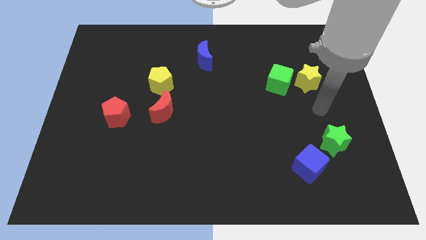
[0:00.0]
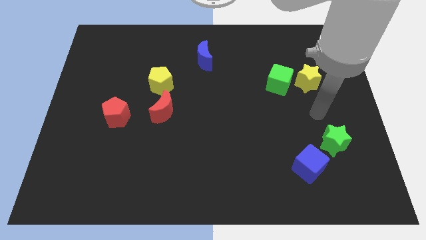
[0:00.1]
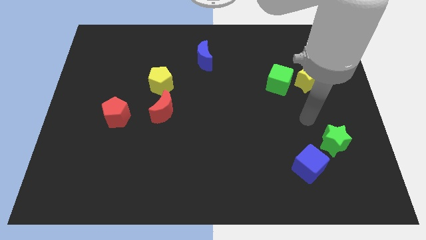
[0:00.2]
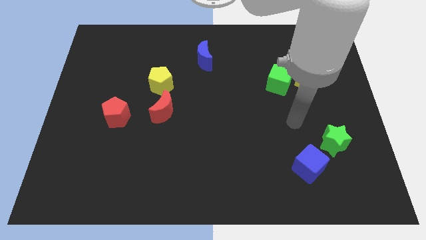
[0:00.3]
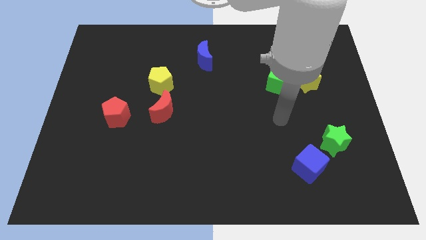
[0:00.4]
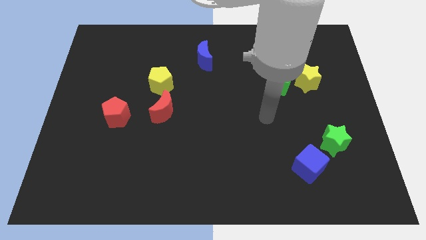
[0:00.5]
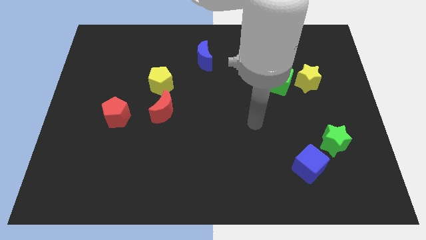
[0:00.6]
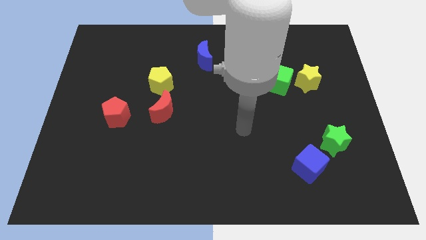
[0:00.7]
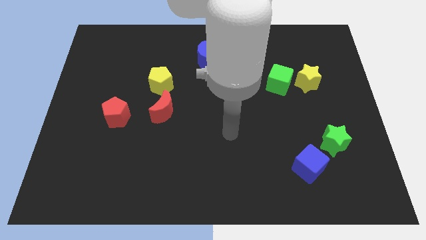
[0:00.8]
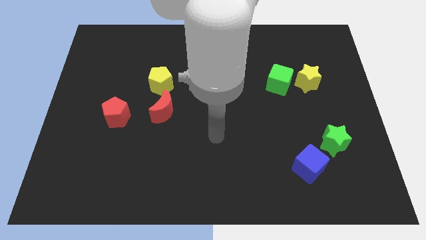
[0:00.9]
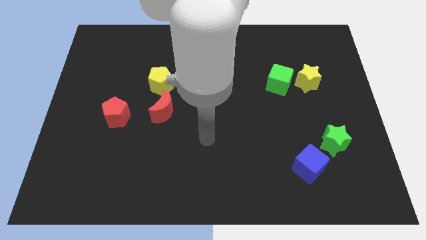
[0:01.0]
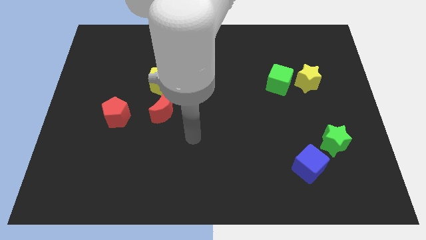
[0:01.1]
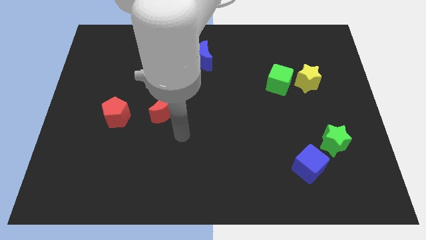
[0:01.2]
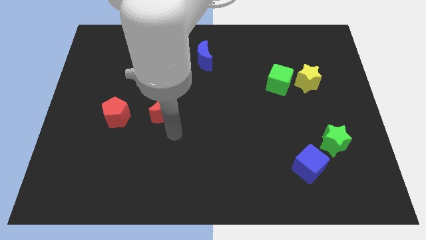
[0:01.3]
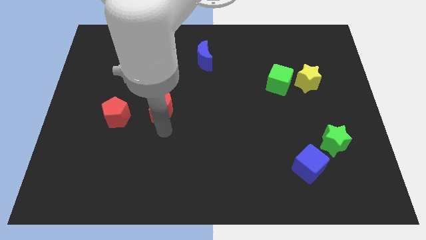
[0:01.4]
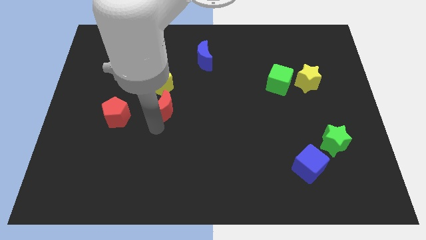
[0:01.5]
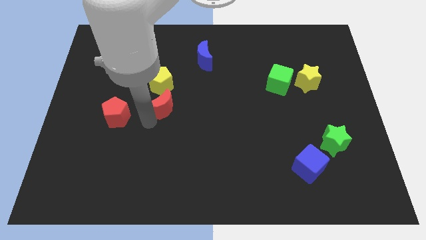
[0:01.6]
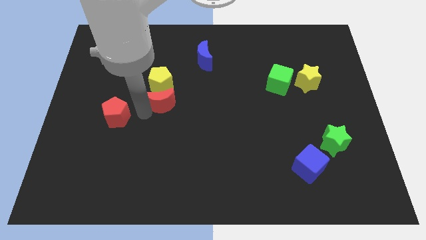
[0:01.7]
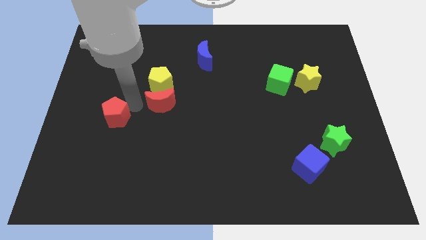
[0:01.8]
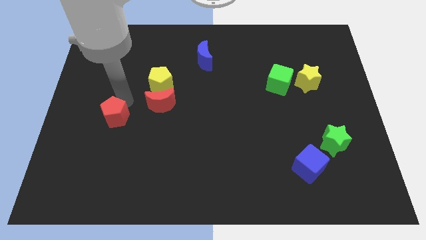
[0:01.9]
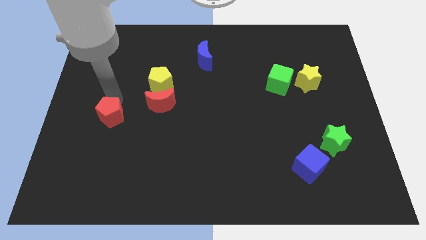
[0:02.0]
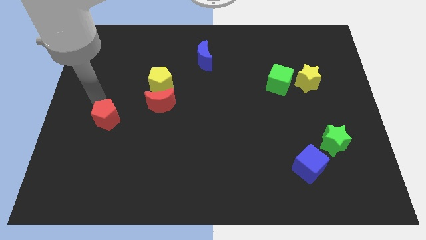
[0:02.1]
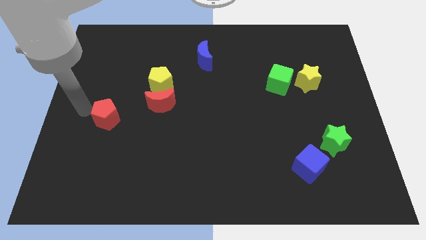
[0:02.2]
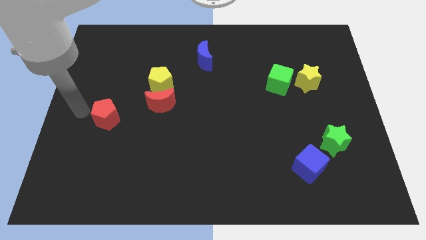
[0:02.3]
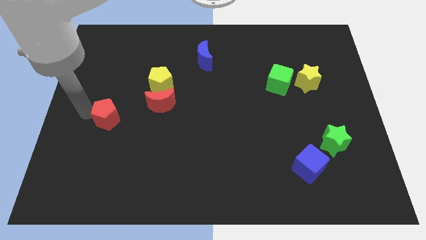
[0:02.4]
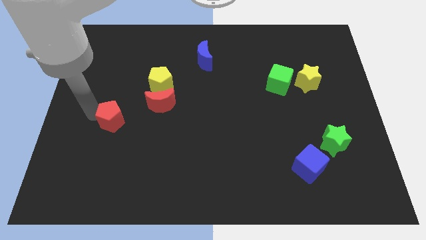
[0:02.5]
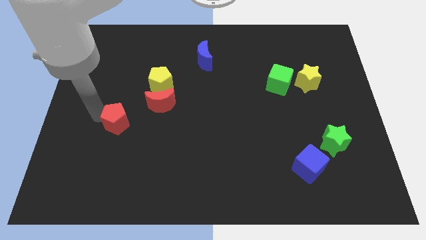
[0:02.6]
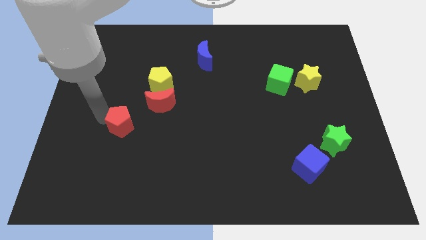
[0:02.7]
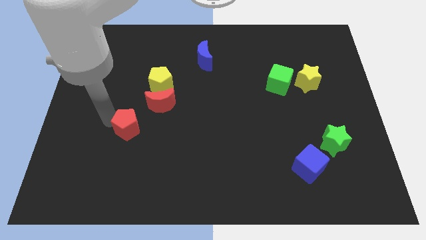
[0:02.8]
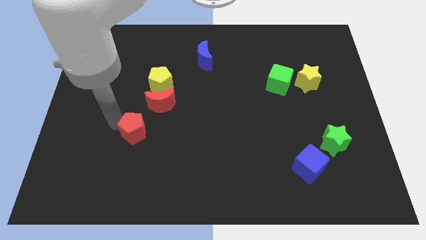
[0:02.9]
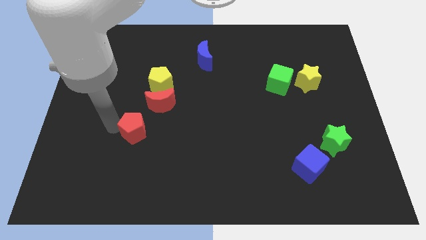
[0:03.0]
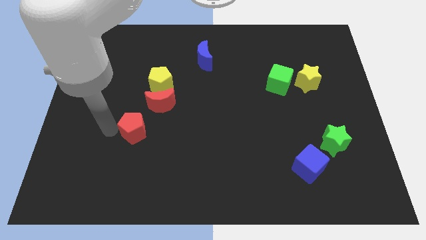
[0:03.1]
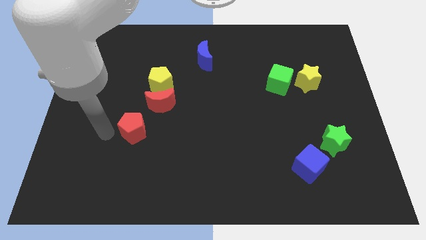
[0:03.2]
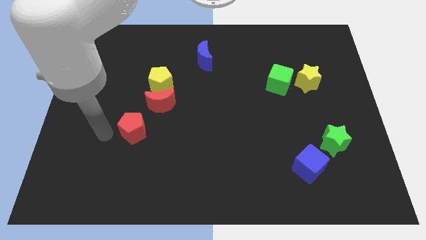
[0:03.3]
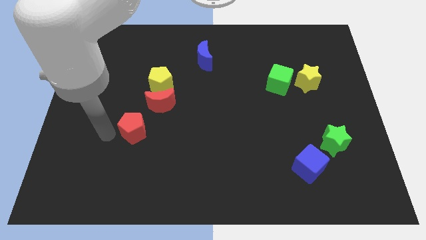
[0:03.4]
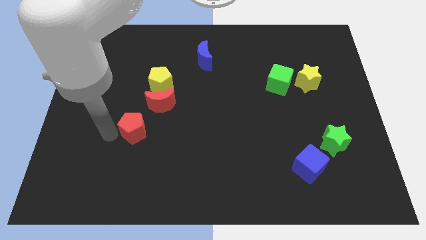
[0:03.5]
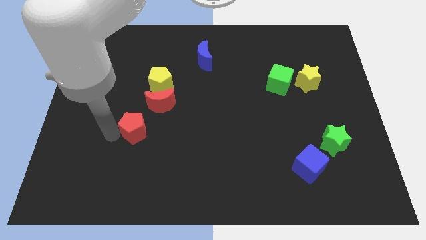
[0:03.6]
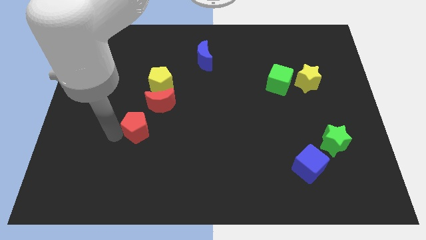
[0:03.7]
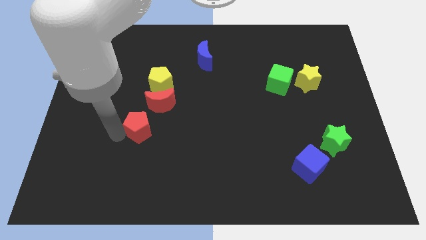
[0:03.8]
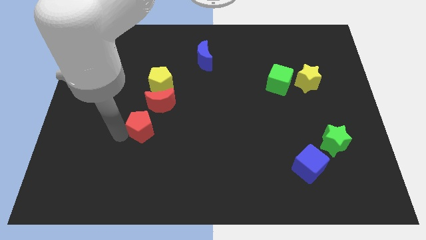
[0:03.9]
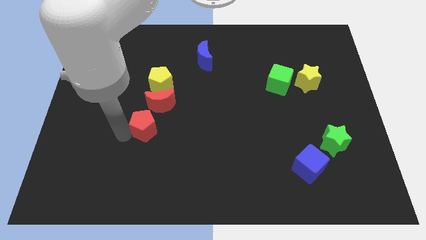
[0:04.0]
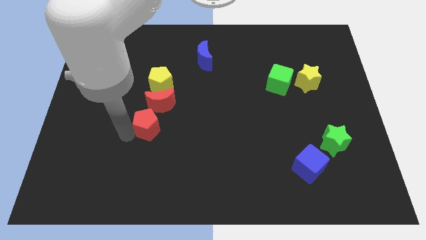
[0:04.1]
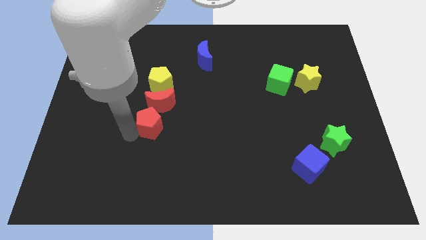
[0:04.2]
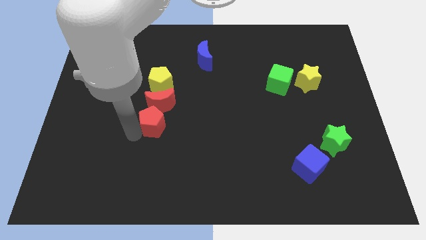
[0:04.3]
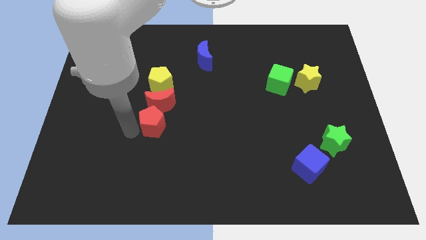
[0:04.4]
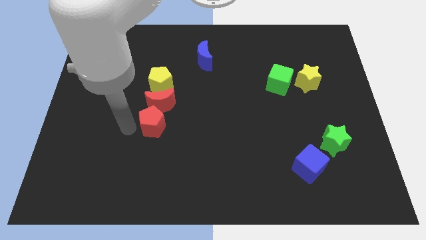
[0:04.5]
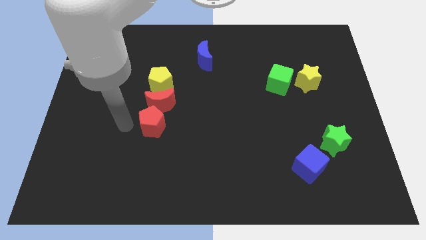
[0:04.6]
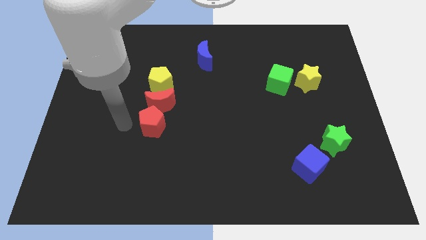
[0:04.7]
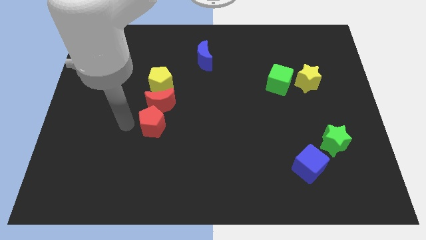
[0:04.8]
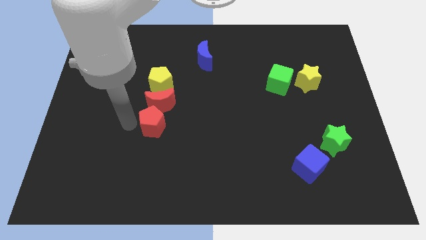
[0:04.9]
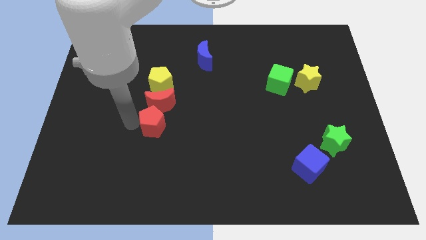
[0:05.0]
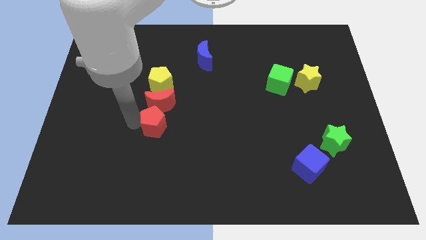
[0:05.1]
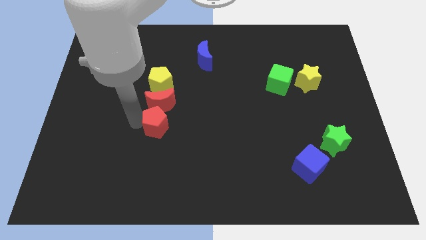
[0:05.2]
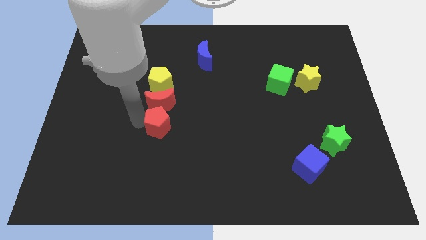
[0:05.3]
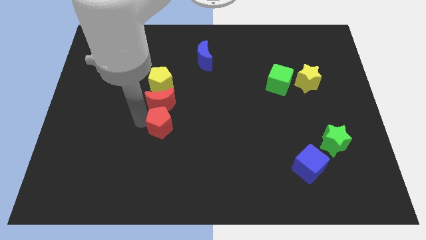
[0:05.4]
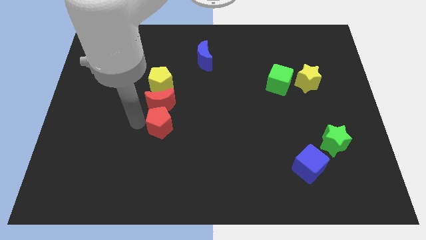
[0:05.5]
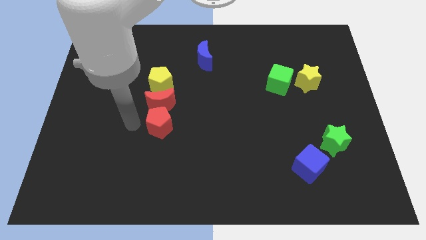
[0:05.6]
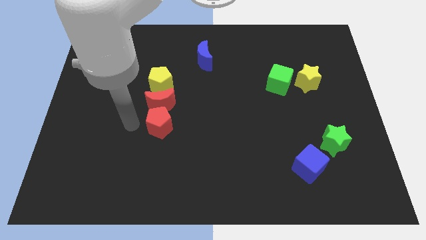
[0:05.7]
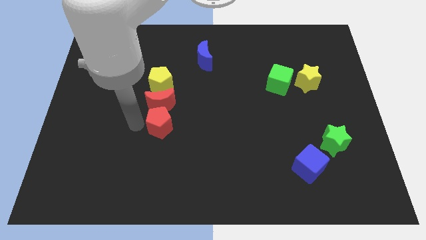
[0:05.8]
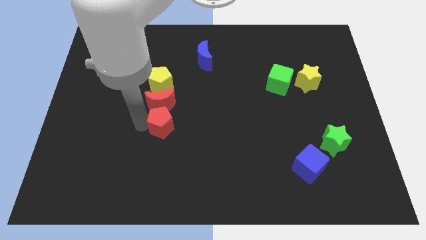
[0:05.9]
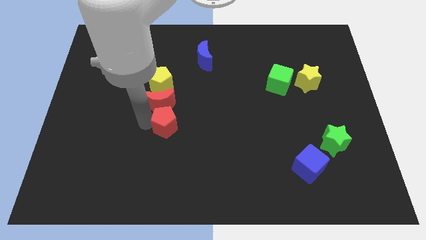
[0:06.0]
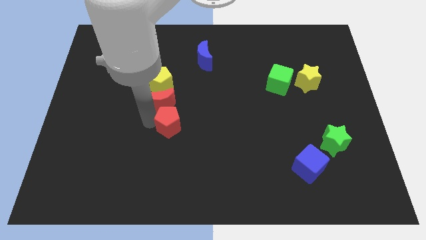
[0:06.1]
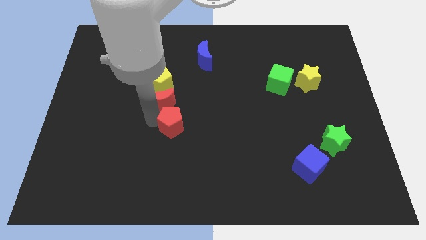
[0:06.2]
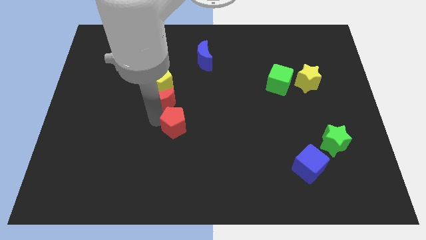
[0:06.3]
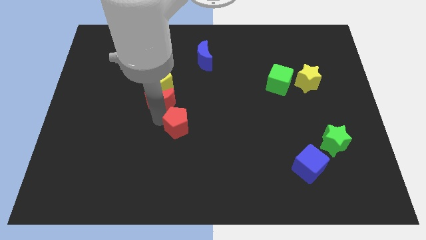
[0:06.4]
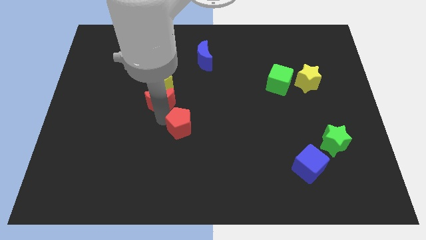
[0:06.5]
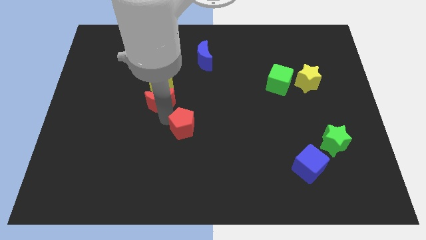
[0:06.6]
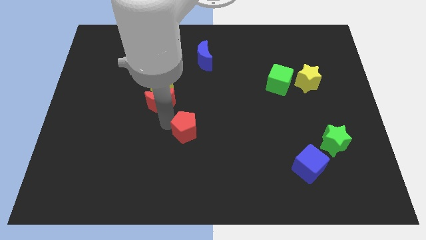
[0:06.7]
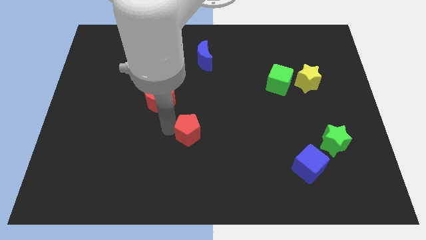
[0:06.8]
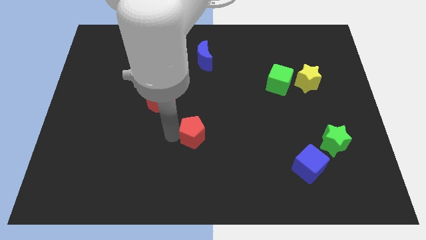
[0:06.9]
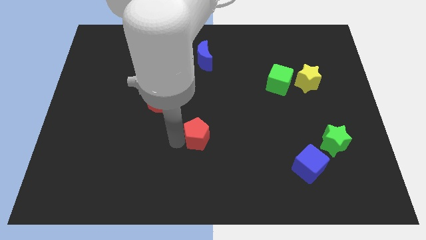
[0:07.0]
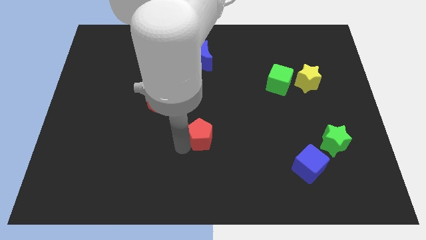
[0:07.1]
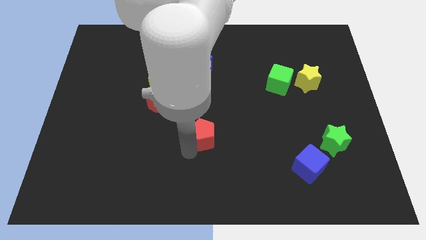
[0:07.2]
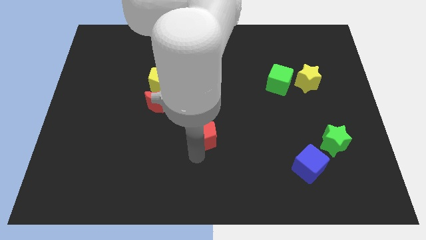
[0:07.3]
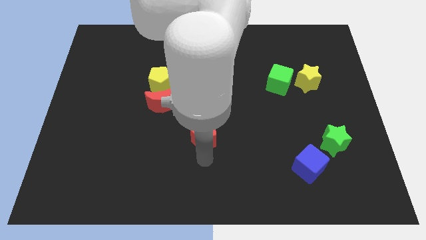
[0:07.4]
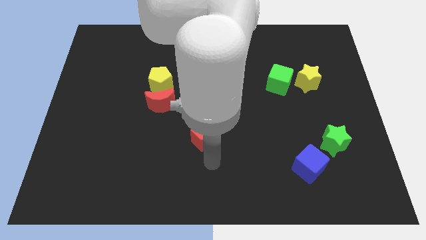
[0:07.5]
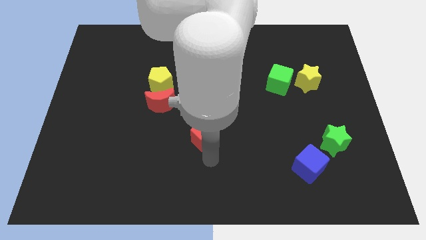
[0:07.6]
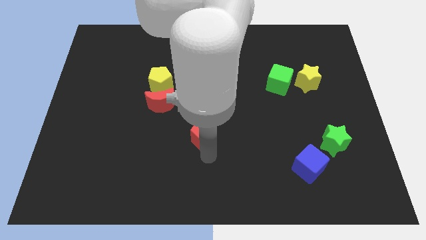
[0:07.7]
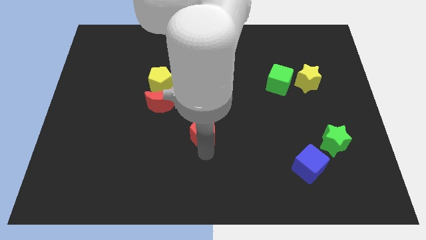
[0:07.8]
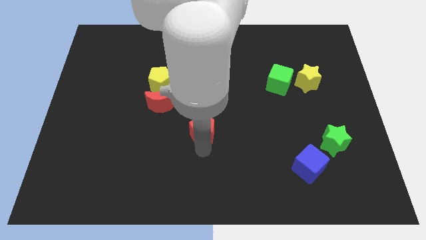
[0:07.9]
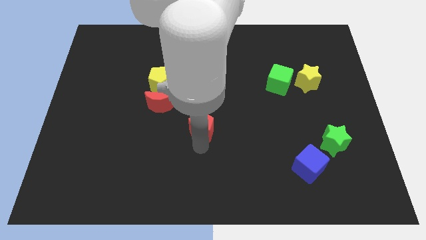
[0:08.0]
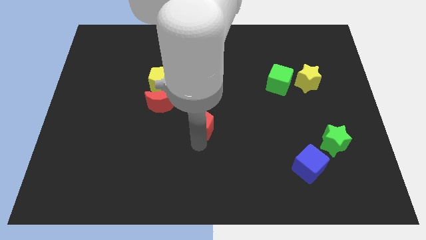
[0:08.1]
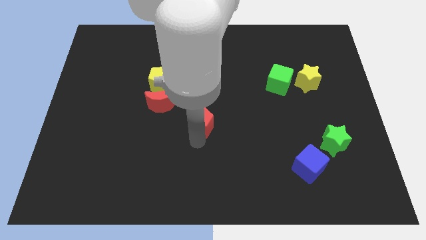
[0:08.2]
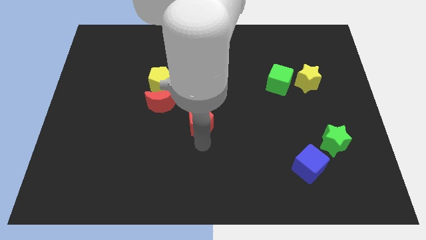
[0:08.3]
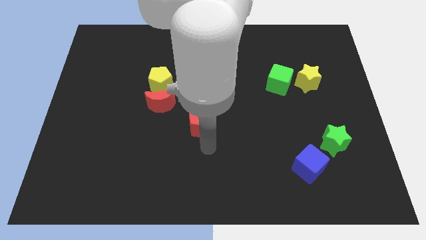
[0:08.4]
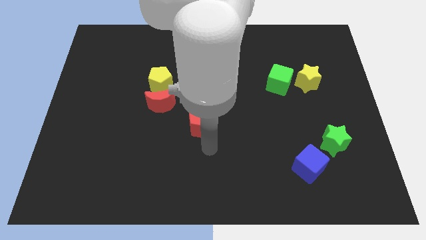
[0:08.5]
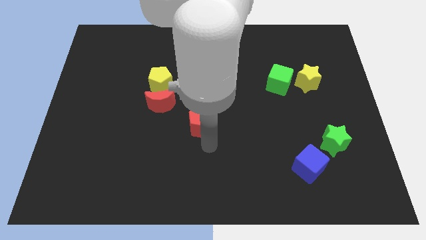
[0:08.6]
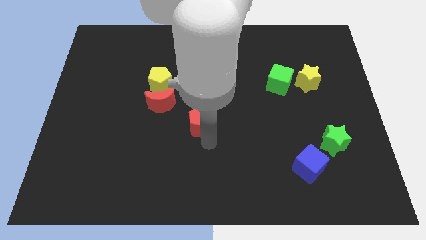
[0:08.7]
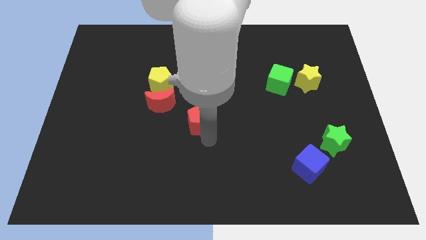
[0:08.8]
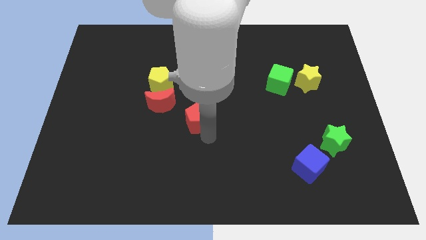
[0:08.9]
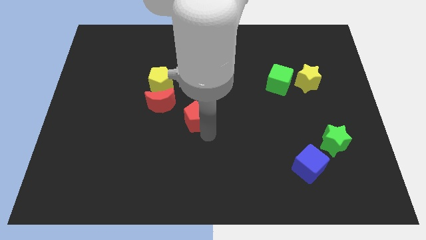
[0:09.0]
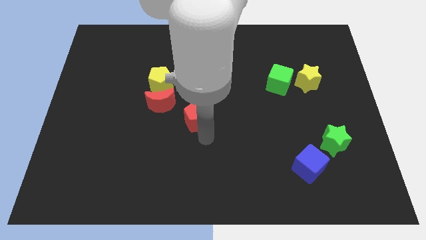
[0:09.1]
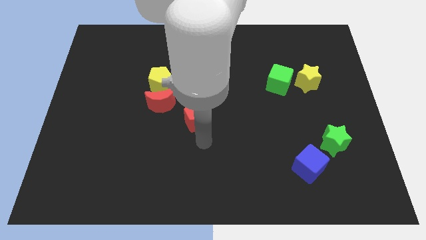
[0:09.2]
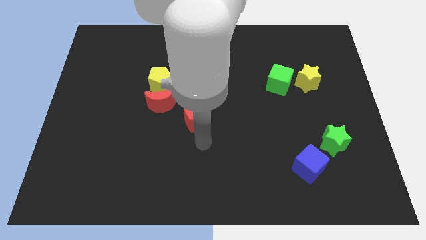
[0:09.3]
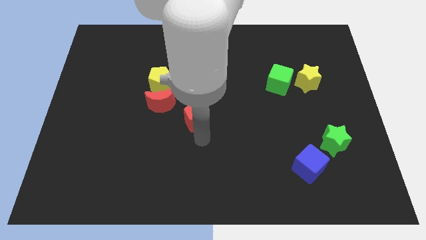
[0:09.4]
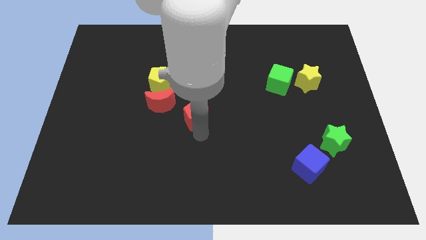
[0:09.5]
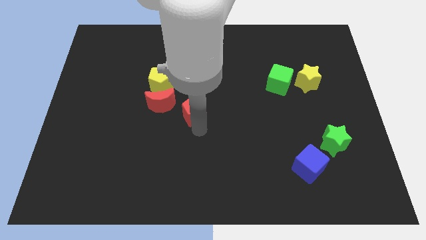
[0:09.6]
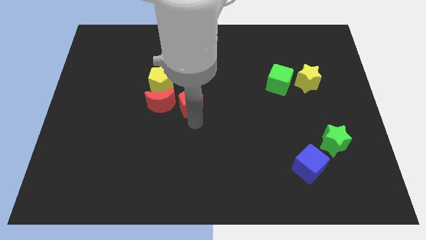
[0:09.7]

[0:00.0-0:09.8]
put the red pentagon to the bottom side of the blue moon
